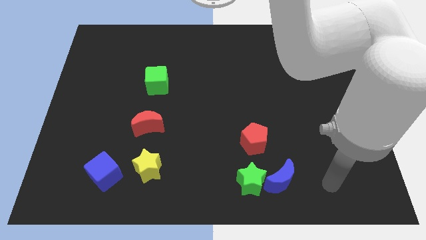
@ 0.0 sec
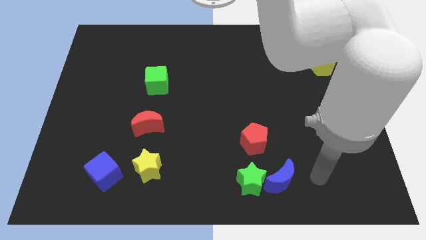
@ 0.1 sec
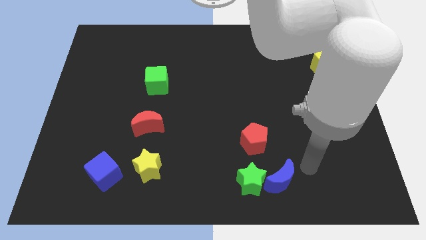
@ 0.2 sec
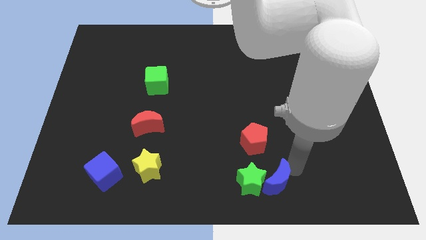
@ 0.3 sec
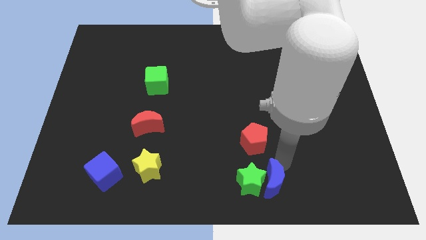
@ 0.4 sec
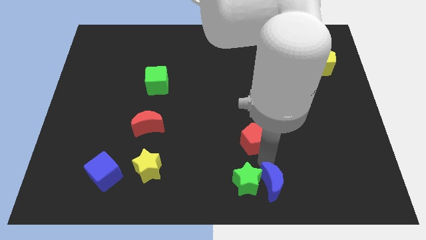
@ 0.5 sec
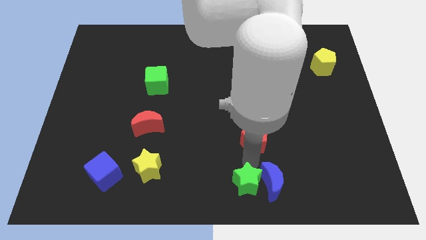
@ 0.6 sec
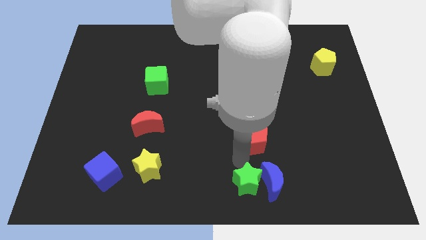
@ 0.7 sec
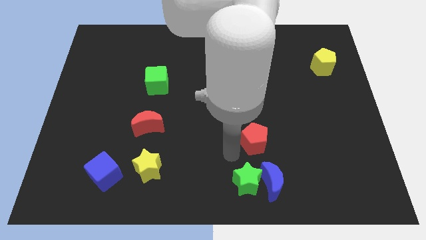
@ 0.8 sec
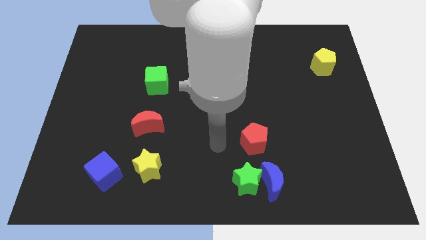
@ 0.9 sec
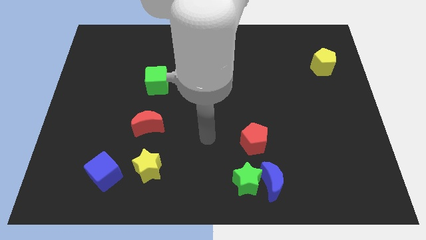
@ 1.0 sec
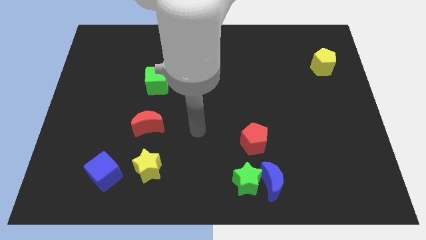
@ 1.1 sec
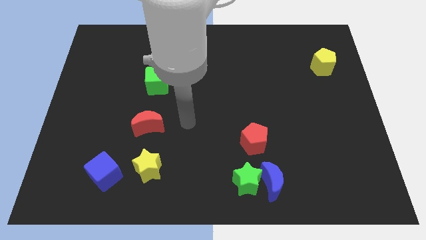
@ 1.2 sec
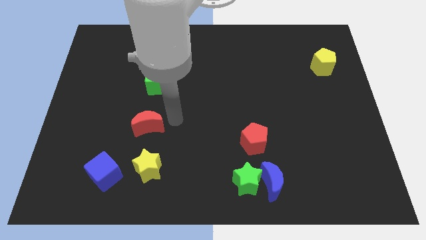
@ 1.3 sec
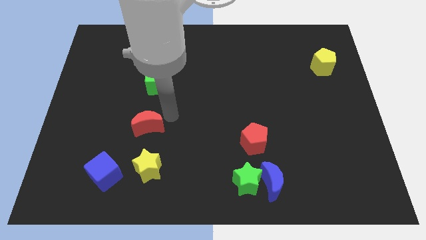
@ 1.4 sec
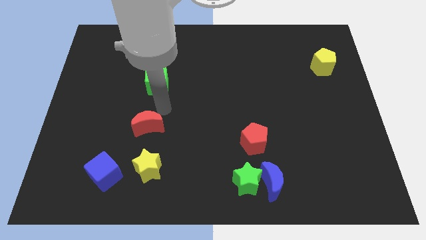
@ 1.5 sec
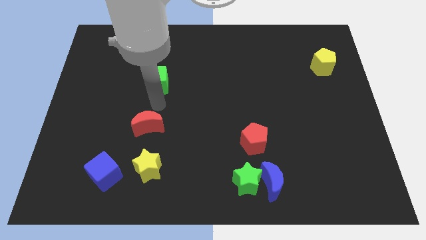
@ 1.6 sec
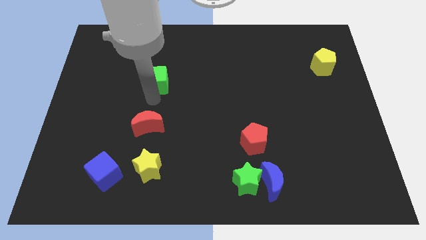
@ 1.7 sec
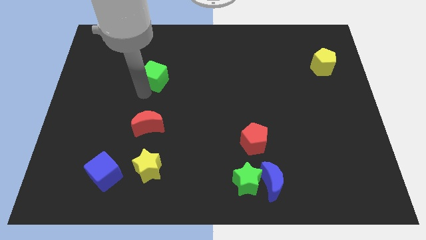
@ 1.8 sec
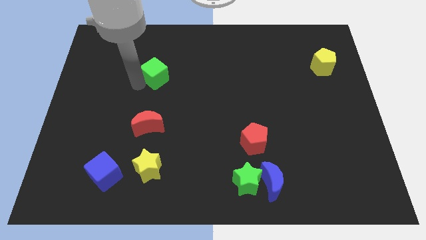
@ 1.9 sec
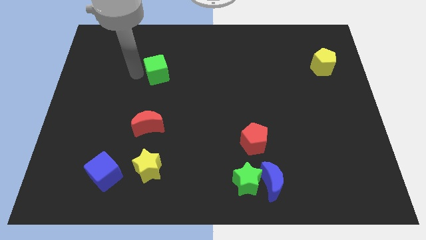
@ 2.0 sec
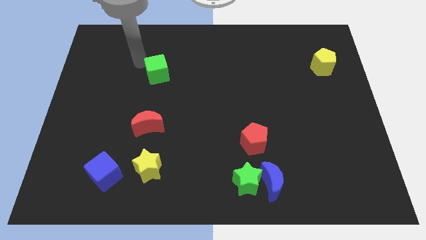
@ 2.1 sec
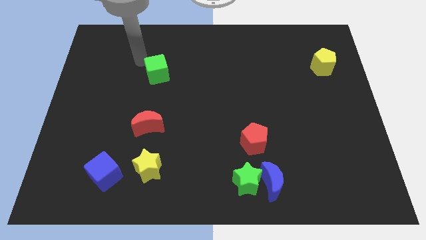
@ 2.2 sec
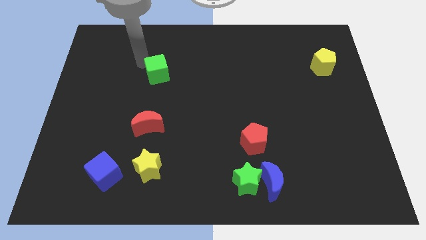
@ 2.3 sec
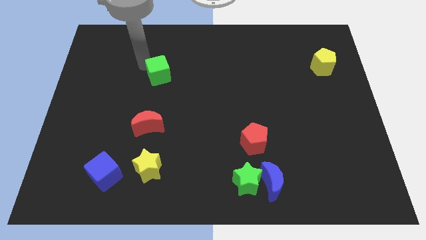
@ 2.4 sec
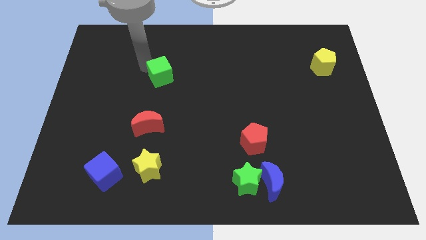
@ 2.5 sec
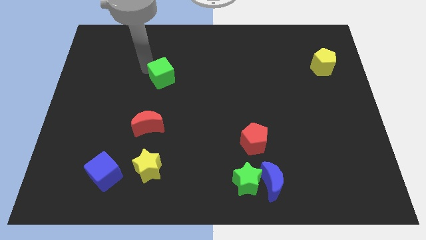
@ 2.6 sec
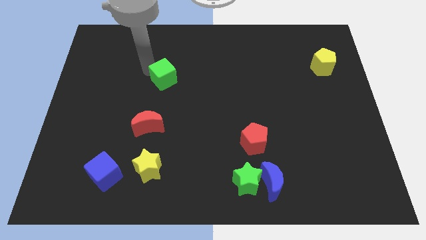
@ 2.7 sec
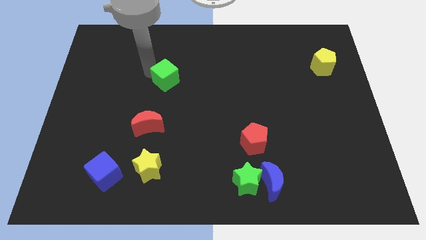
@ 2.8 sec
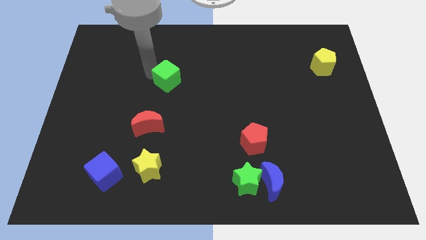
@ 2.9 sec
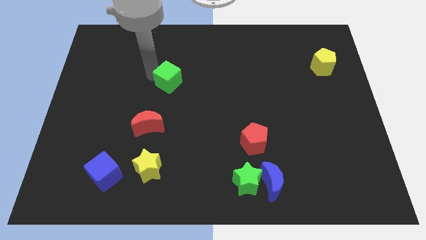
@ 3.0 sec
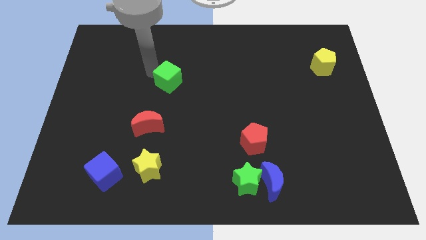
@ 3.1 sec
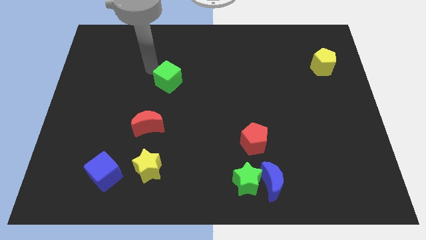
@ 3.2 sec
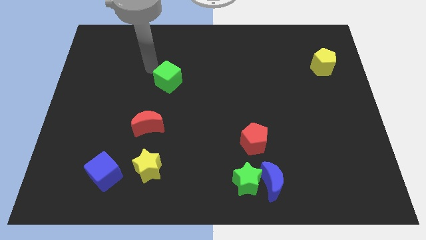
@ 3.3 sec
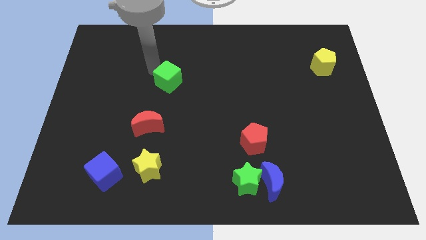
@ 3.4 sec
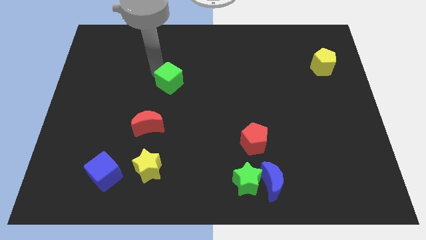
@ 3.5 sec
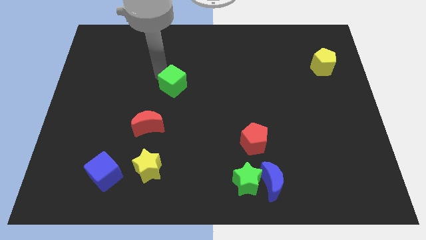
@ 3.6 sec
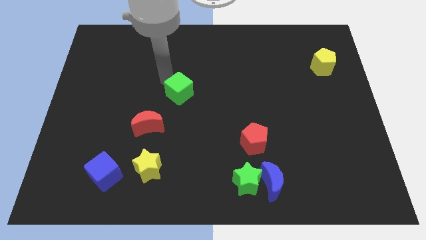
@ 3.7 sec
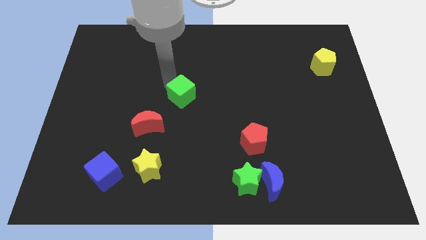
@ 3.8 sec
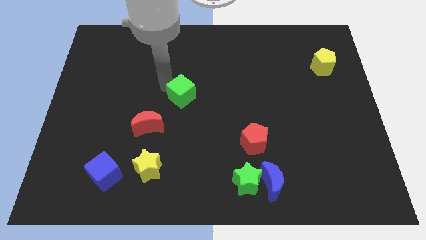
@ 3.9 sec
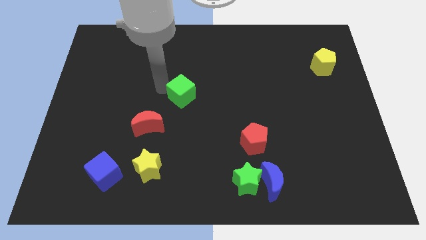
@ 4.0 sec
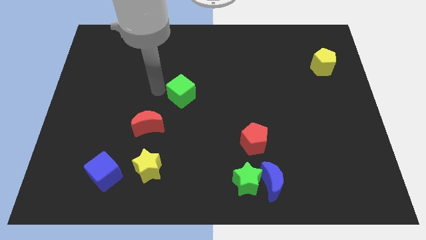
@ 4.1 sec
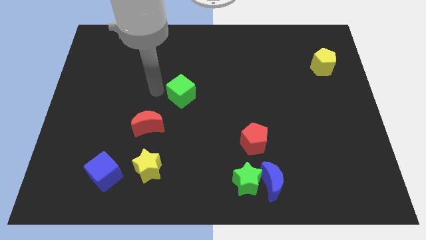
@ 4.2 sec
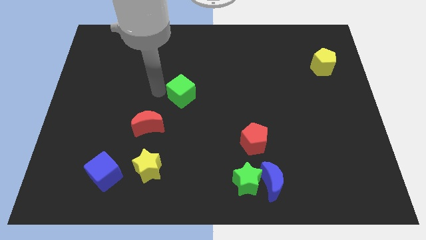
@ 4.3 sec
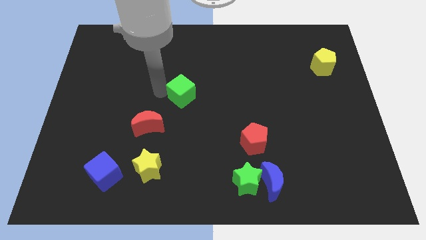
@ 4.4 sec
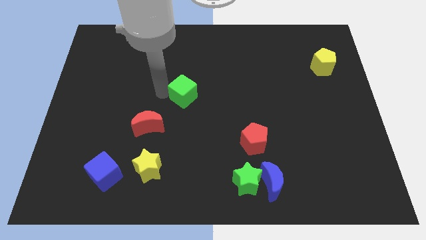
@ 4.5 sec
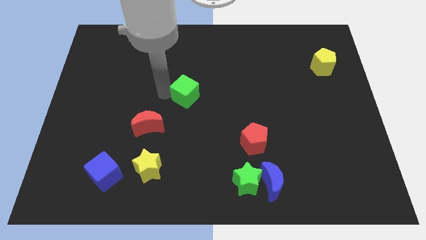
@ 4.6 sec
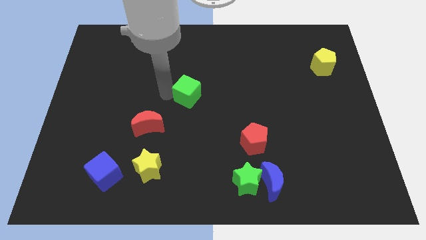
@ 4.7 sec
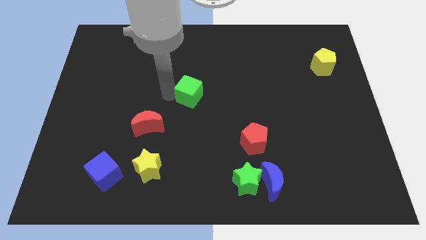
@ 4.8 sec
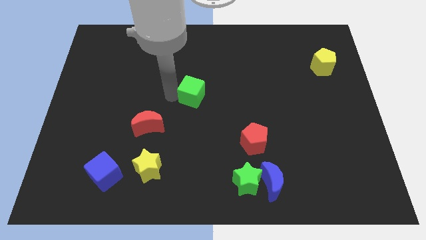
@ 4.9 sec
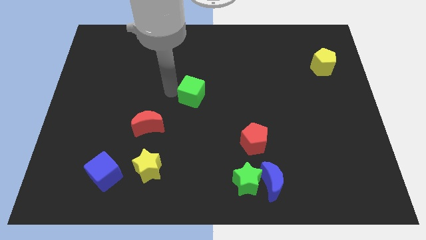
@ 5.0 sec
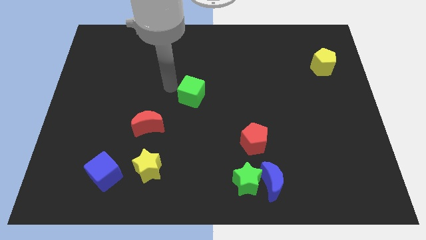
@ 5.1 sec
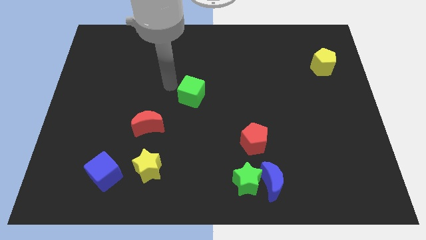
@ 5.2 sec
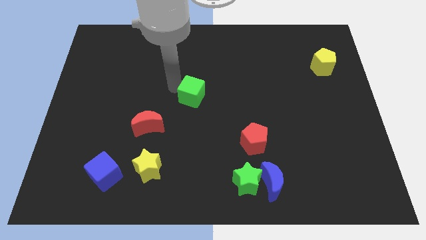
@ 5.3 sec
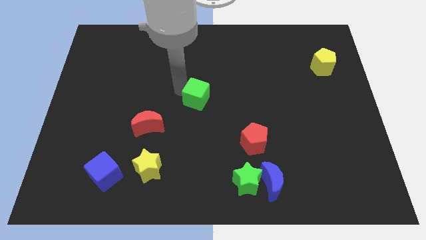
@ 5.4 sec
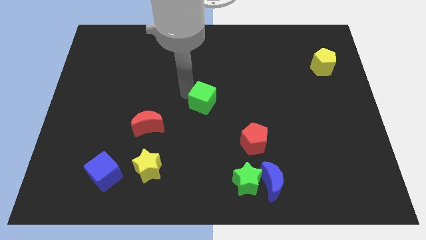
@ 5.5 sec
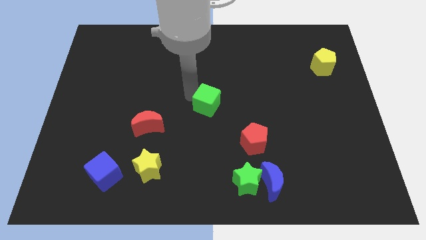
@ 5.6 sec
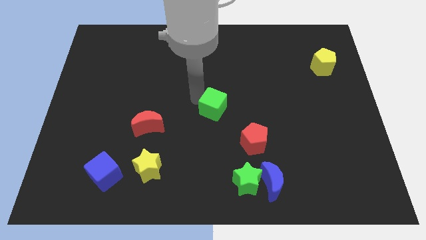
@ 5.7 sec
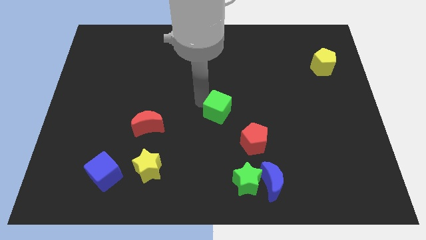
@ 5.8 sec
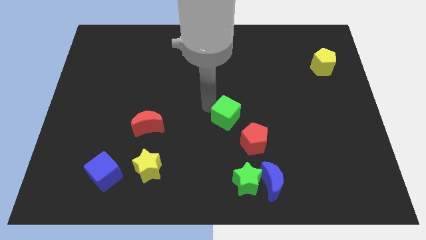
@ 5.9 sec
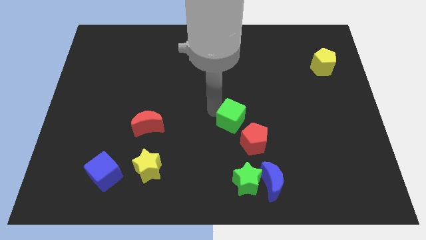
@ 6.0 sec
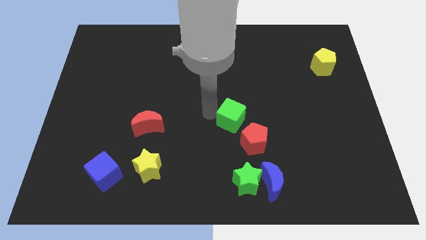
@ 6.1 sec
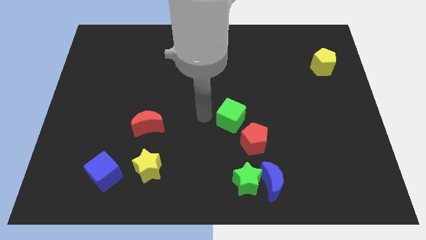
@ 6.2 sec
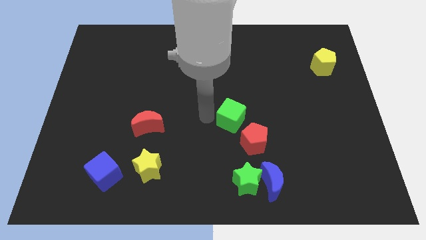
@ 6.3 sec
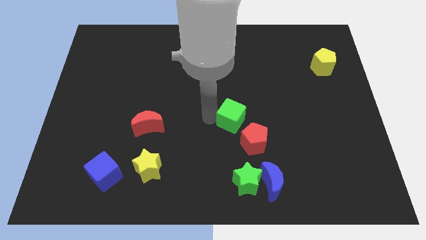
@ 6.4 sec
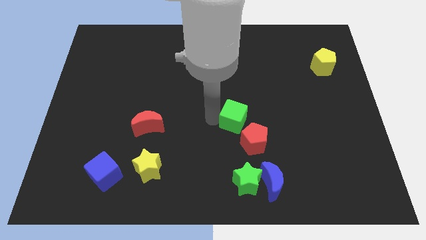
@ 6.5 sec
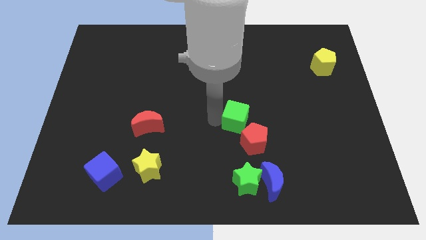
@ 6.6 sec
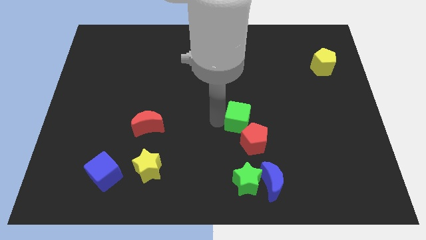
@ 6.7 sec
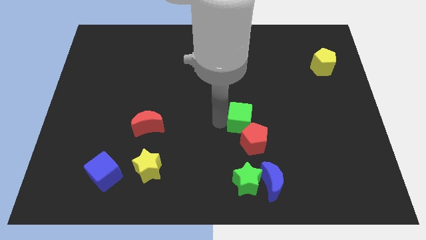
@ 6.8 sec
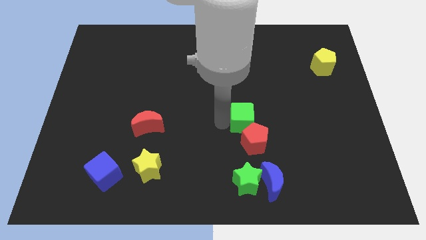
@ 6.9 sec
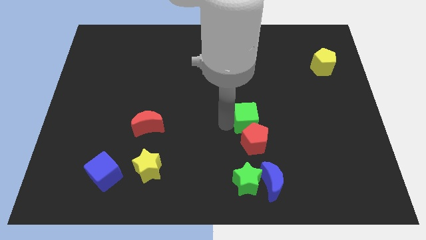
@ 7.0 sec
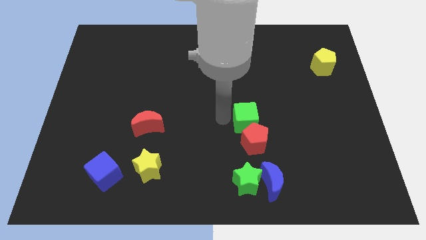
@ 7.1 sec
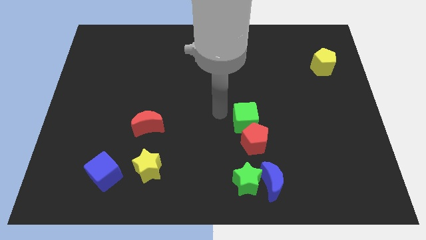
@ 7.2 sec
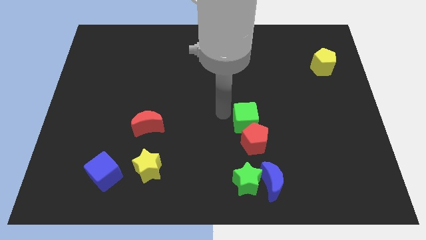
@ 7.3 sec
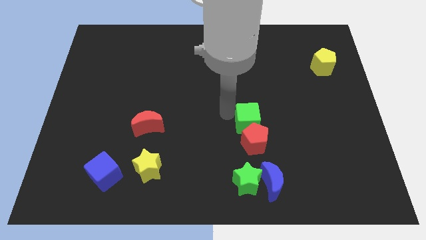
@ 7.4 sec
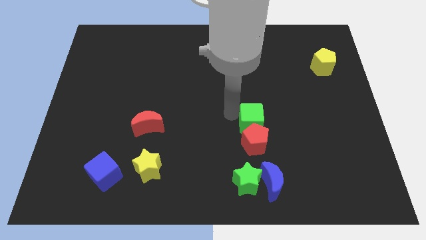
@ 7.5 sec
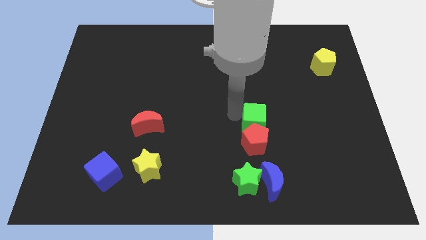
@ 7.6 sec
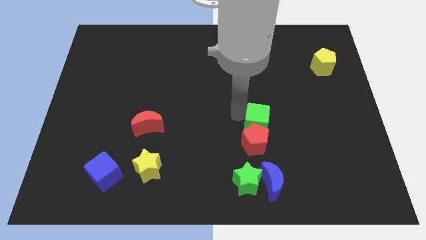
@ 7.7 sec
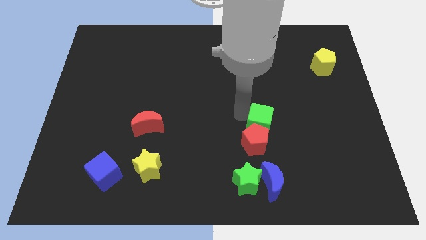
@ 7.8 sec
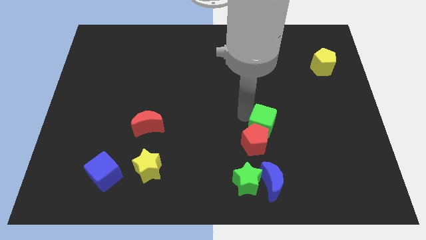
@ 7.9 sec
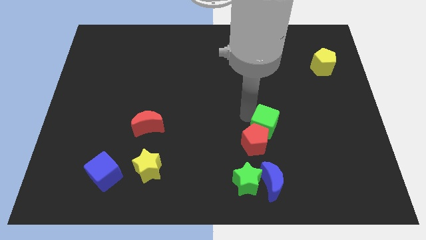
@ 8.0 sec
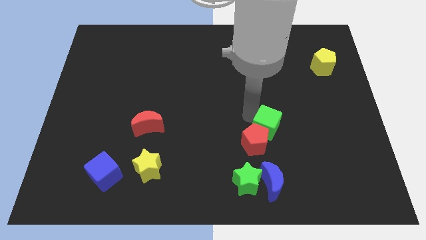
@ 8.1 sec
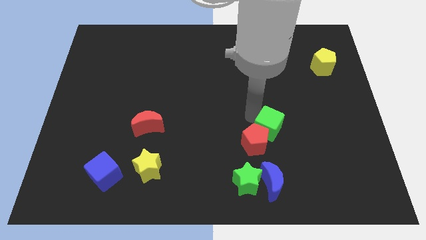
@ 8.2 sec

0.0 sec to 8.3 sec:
push the green cube to the right side of the red pentagon
